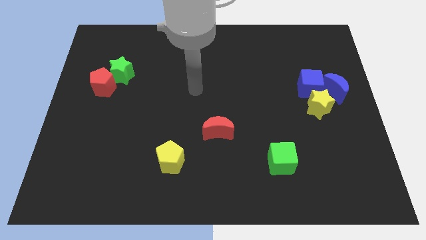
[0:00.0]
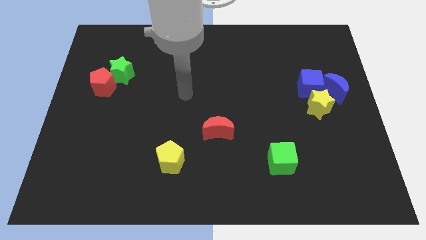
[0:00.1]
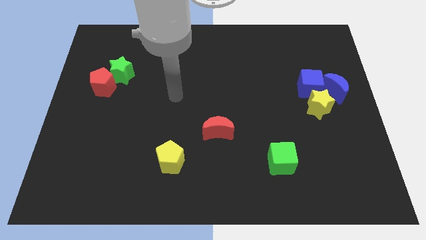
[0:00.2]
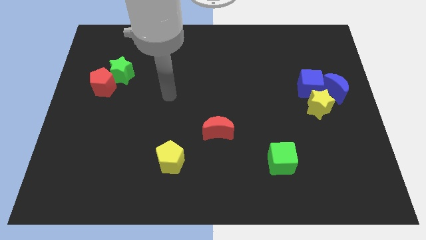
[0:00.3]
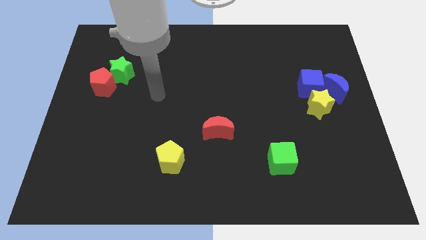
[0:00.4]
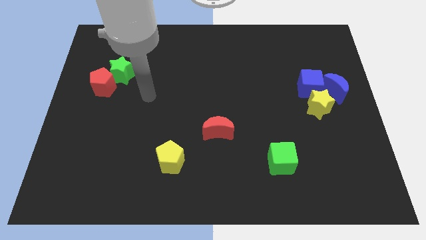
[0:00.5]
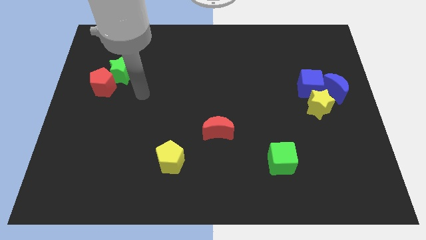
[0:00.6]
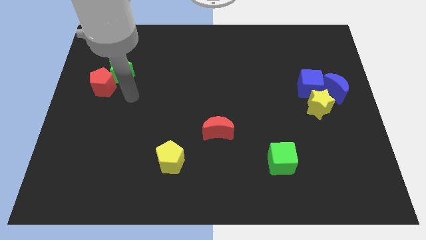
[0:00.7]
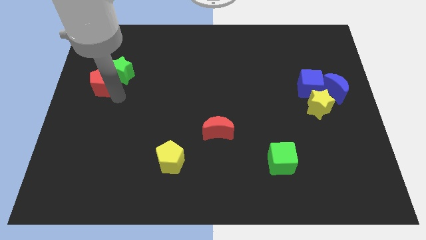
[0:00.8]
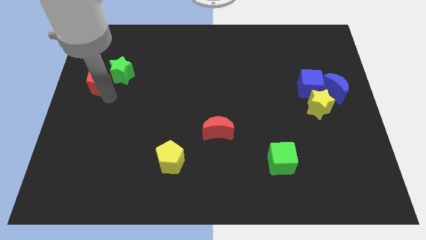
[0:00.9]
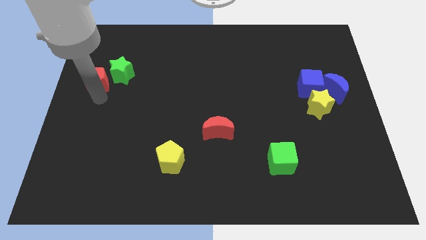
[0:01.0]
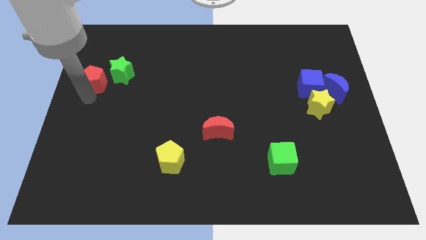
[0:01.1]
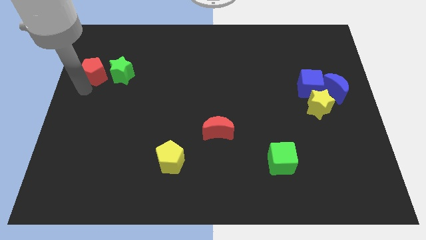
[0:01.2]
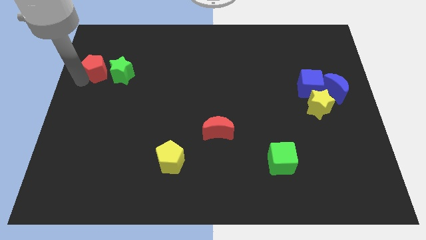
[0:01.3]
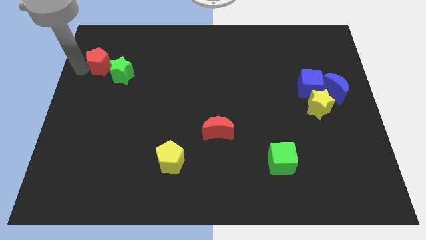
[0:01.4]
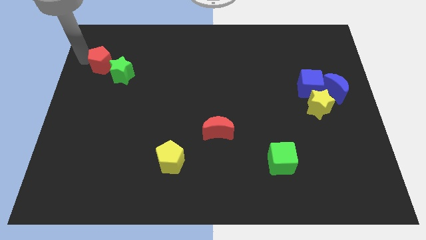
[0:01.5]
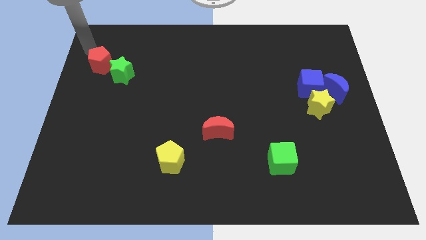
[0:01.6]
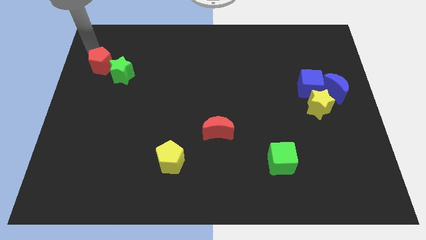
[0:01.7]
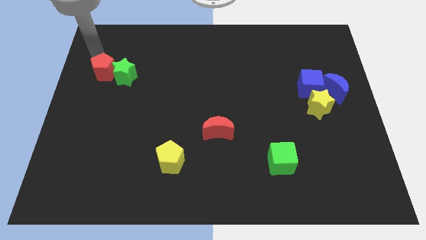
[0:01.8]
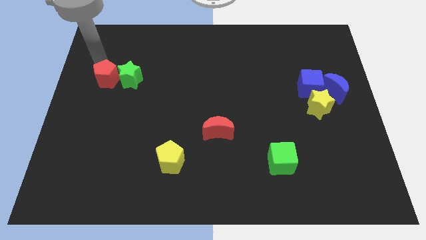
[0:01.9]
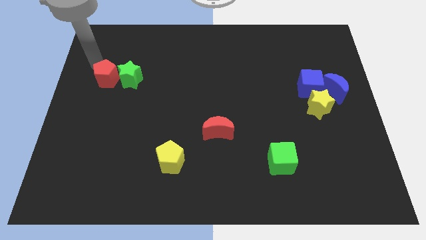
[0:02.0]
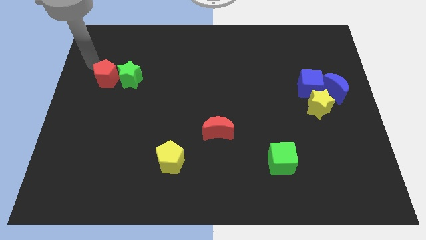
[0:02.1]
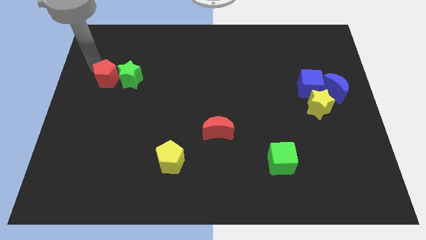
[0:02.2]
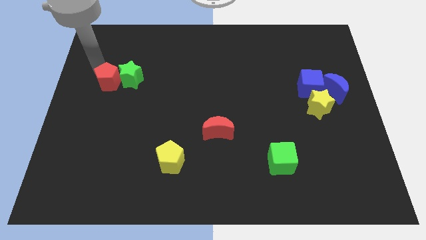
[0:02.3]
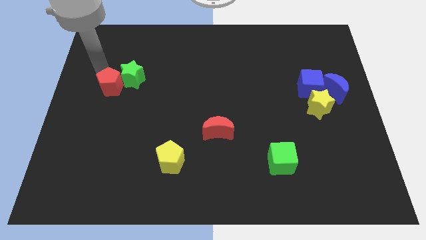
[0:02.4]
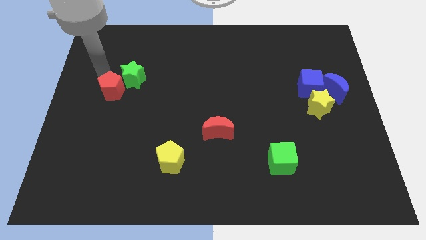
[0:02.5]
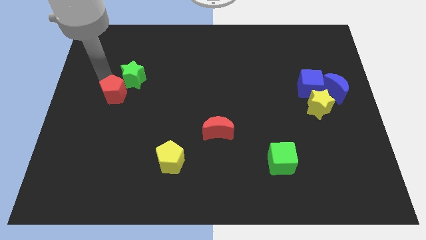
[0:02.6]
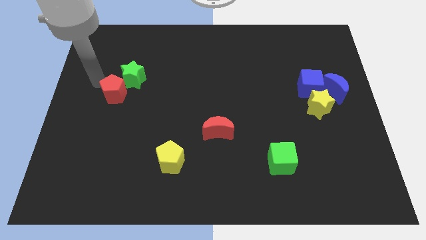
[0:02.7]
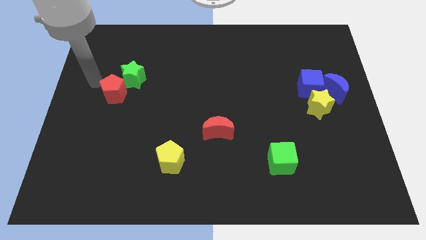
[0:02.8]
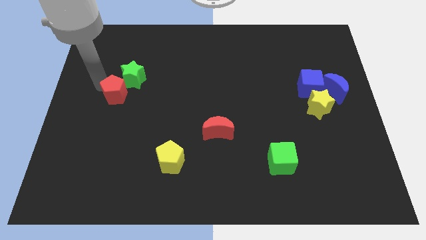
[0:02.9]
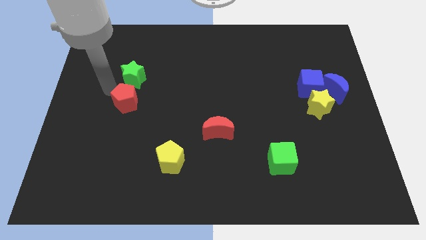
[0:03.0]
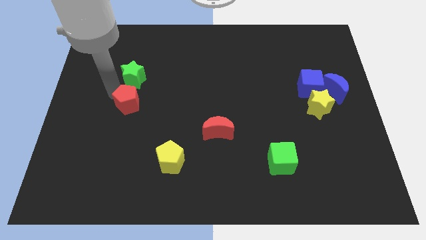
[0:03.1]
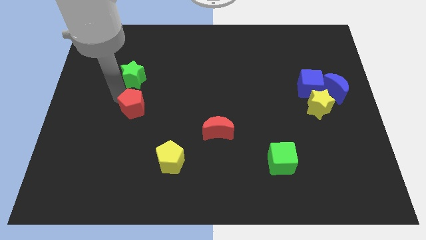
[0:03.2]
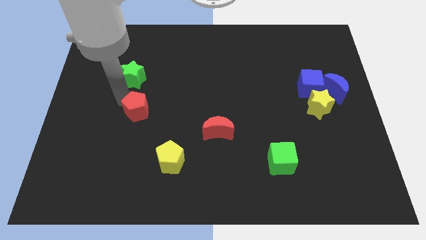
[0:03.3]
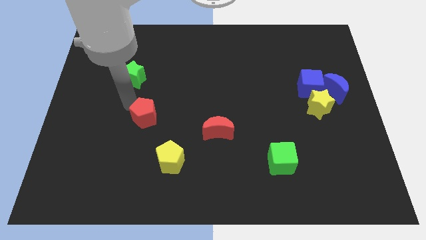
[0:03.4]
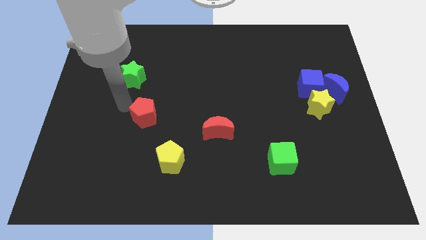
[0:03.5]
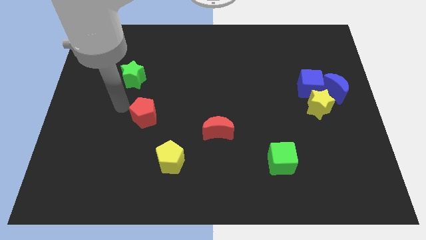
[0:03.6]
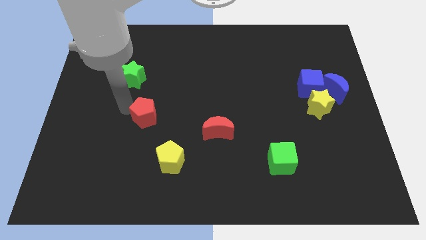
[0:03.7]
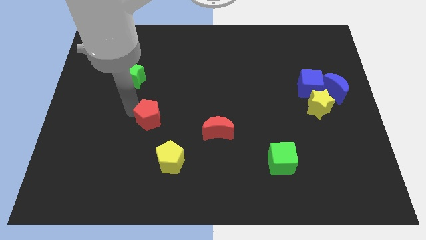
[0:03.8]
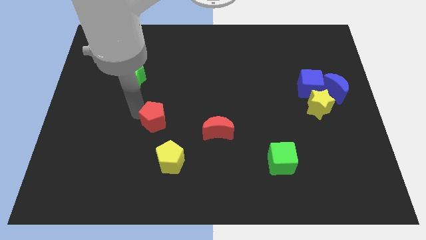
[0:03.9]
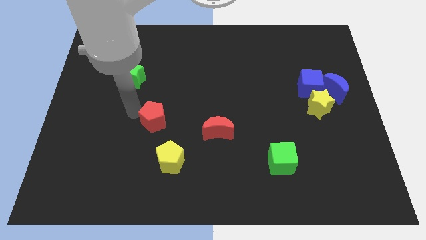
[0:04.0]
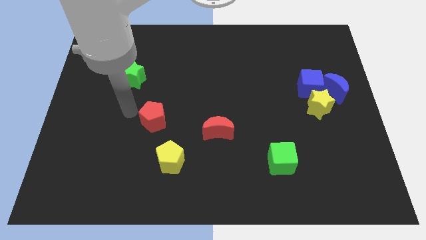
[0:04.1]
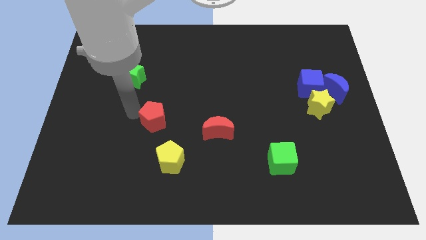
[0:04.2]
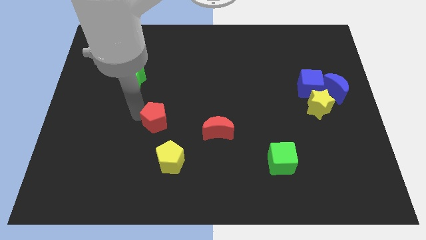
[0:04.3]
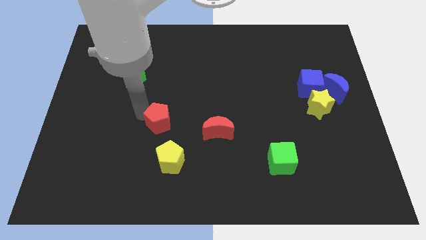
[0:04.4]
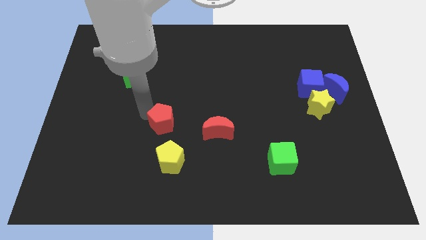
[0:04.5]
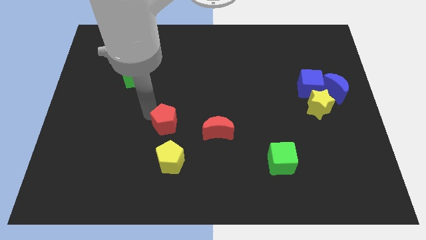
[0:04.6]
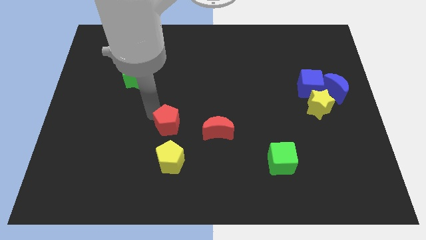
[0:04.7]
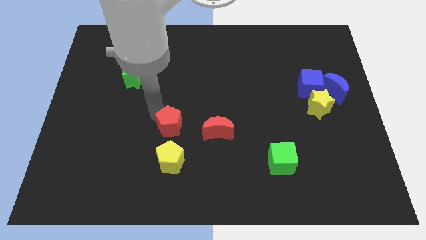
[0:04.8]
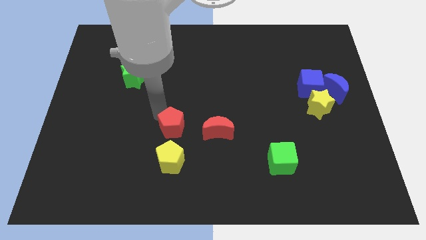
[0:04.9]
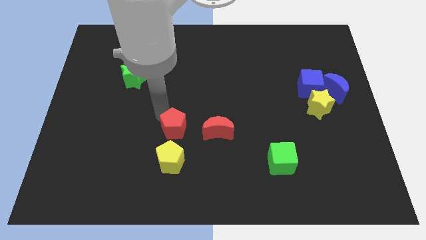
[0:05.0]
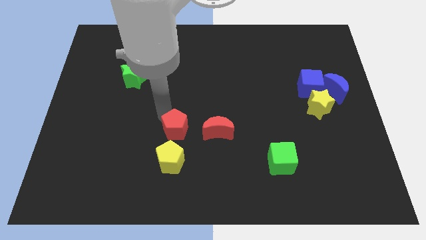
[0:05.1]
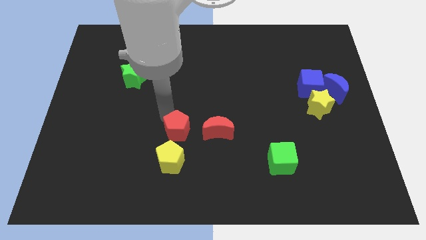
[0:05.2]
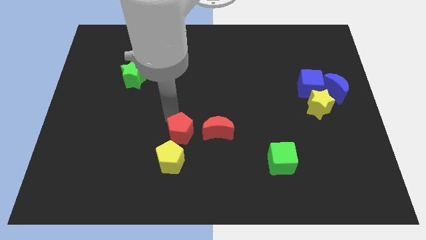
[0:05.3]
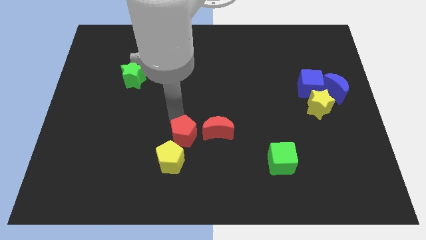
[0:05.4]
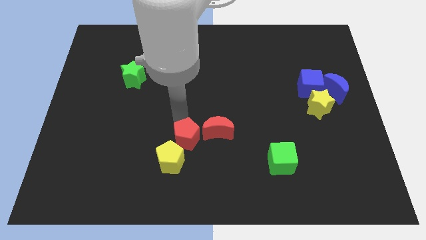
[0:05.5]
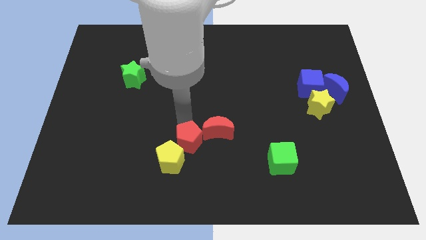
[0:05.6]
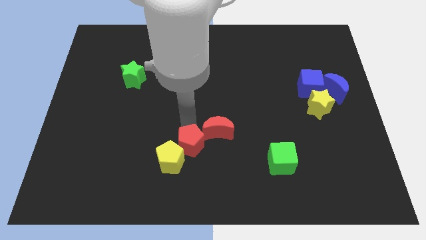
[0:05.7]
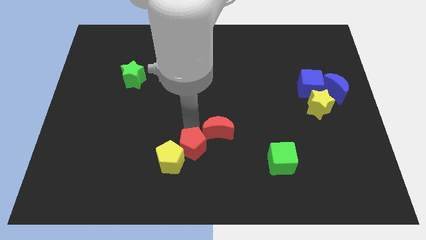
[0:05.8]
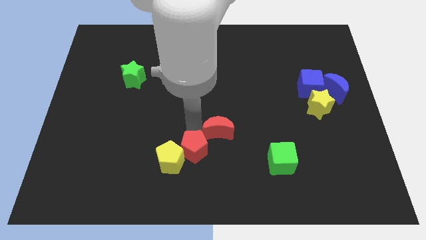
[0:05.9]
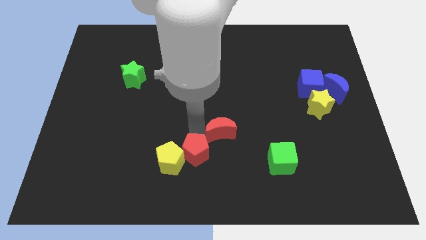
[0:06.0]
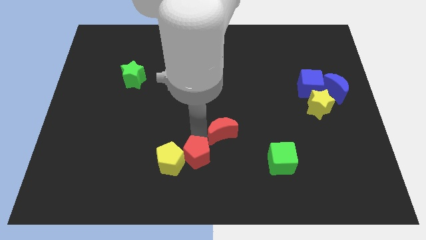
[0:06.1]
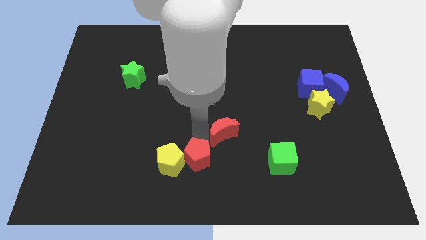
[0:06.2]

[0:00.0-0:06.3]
move the red pentagon diagonally down and to the right of the yellow pentagon
